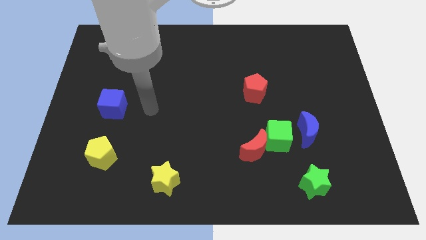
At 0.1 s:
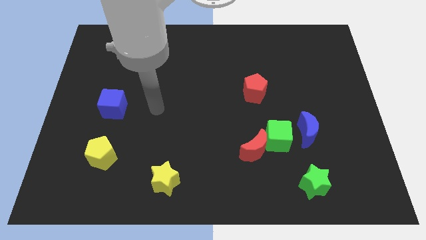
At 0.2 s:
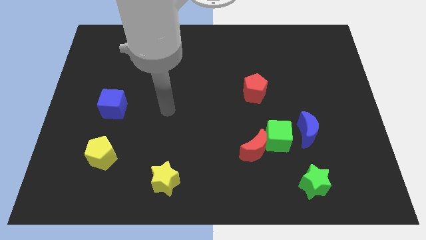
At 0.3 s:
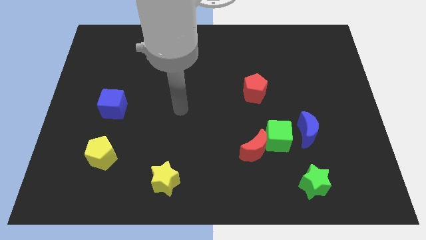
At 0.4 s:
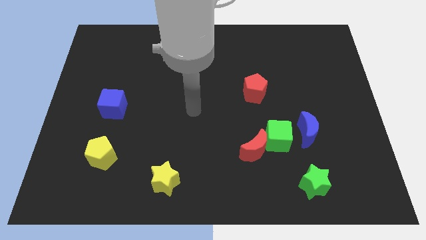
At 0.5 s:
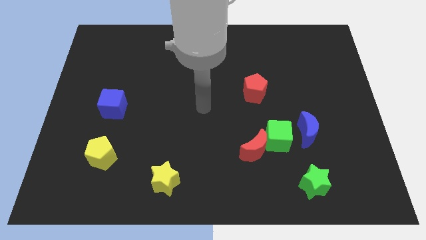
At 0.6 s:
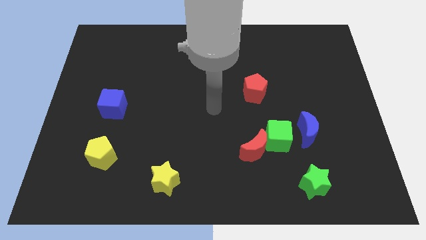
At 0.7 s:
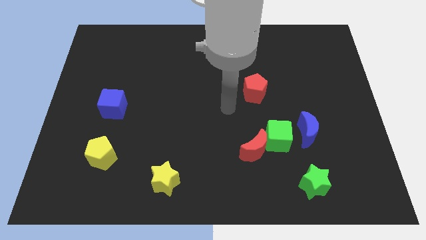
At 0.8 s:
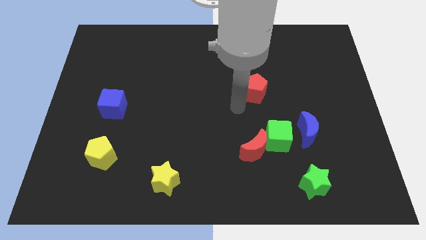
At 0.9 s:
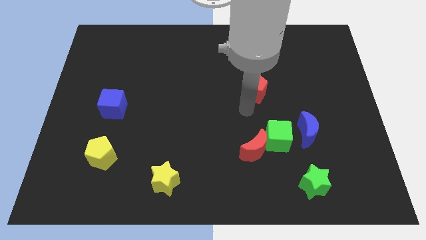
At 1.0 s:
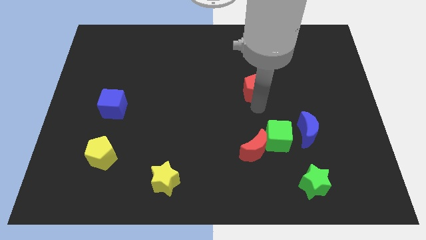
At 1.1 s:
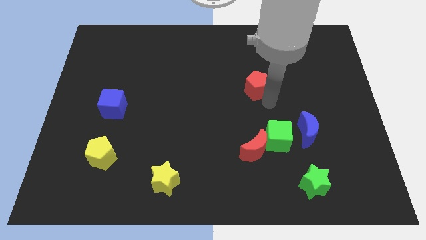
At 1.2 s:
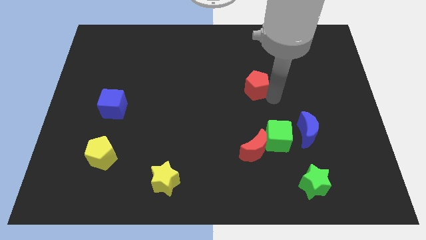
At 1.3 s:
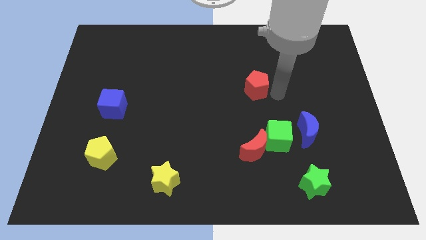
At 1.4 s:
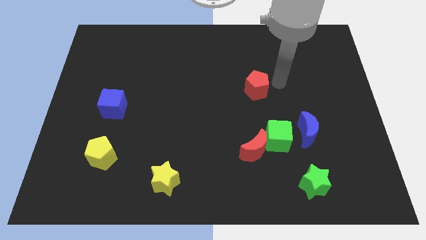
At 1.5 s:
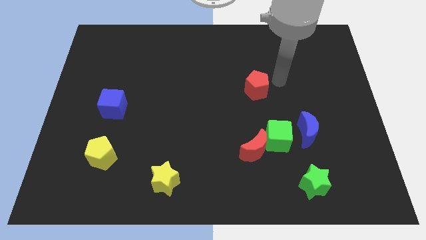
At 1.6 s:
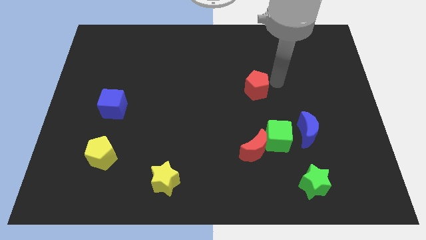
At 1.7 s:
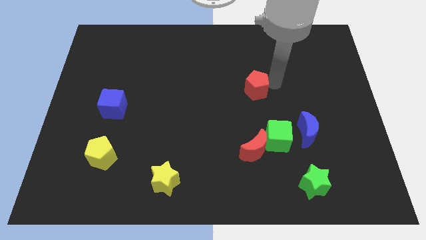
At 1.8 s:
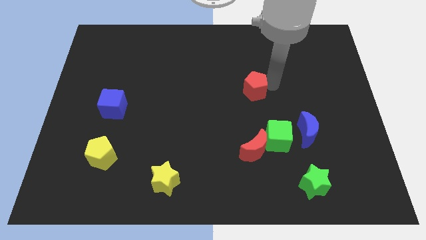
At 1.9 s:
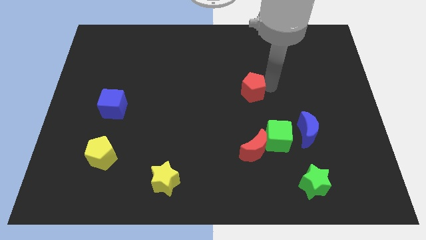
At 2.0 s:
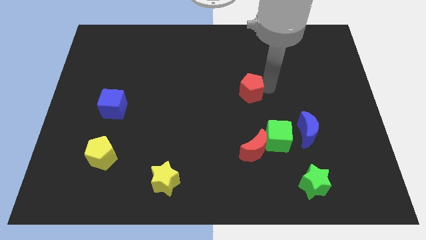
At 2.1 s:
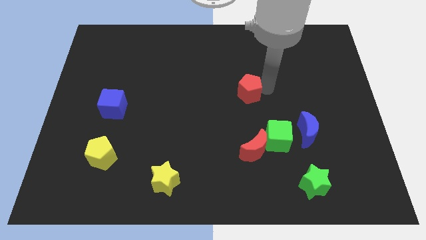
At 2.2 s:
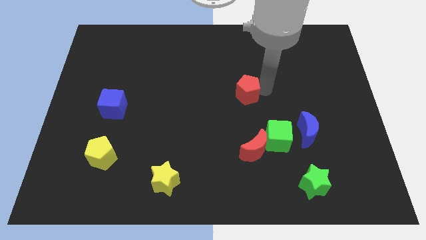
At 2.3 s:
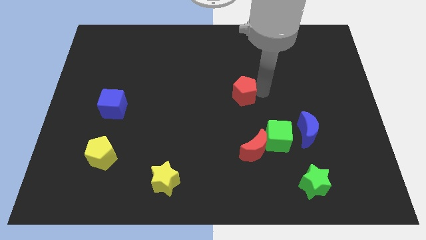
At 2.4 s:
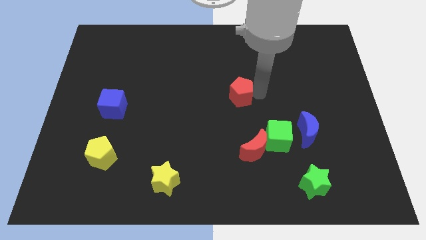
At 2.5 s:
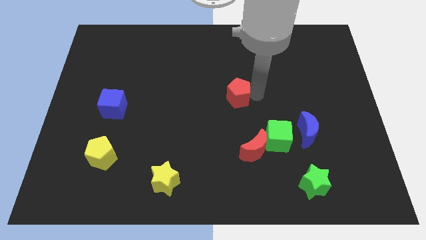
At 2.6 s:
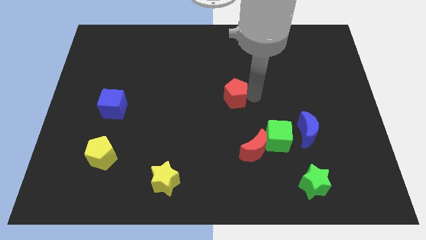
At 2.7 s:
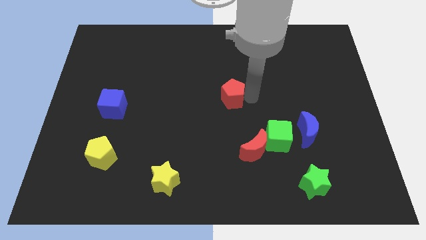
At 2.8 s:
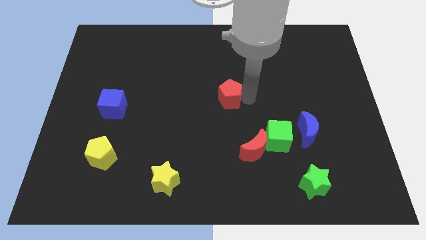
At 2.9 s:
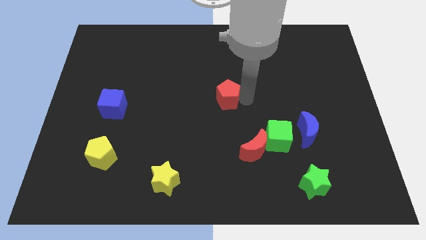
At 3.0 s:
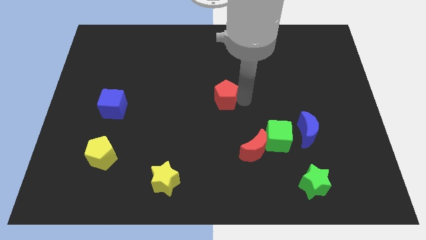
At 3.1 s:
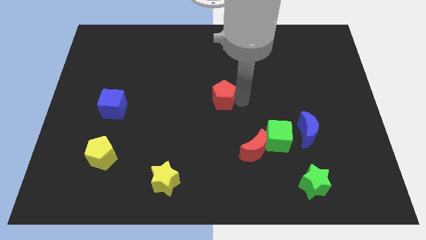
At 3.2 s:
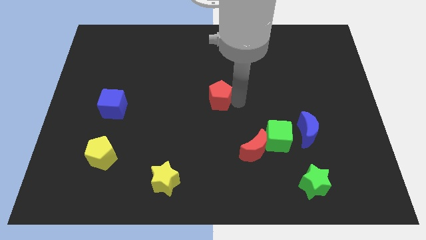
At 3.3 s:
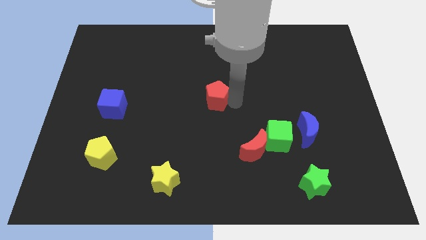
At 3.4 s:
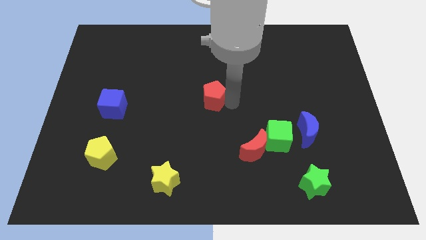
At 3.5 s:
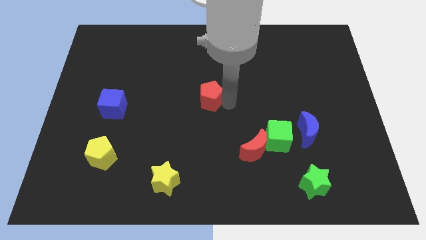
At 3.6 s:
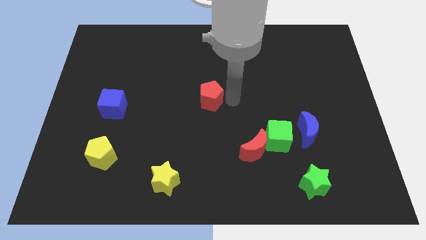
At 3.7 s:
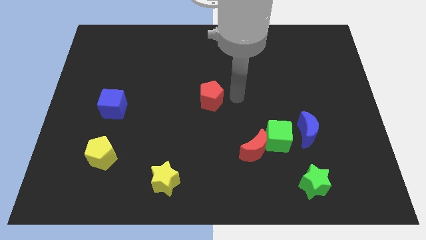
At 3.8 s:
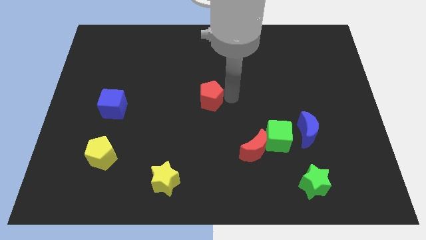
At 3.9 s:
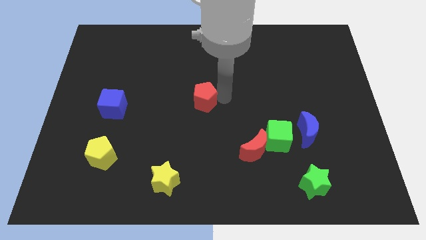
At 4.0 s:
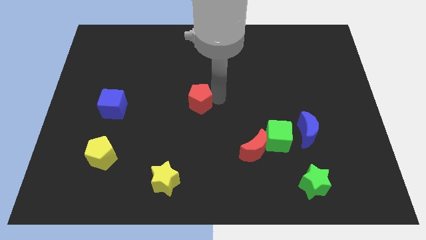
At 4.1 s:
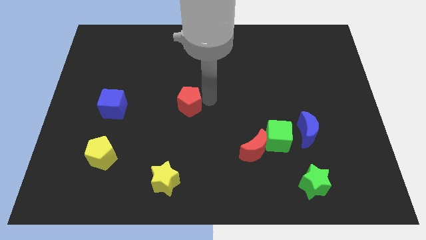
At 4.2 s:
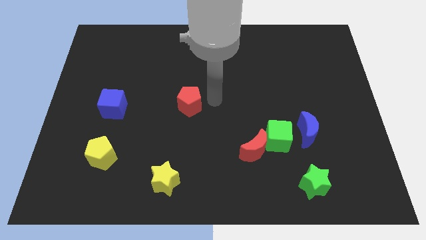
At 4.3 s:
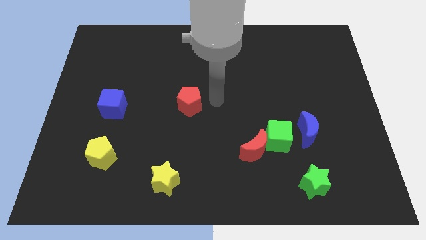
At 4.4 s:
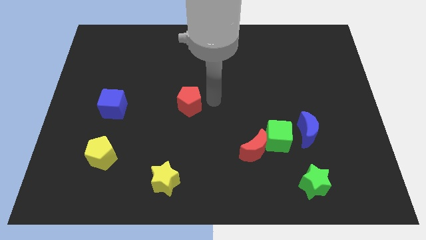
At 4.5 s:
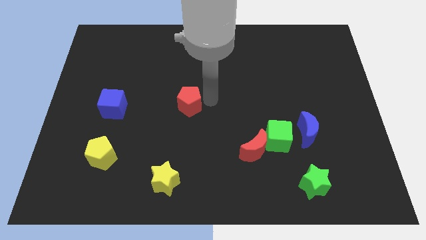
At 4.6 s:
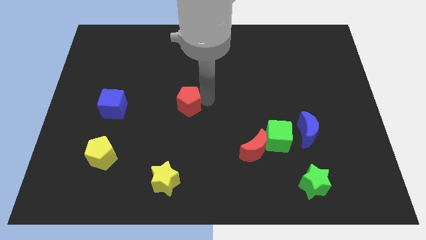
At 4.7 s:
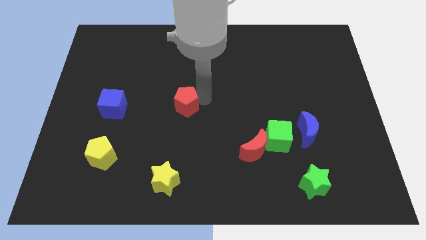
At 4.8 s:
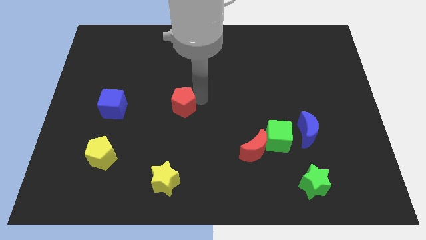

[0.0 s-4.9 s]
slide the red pentagon to the right of the blue cube

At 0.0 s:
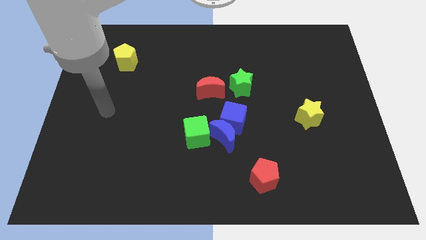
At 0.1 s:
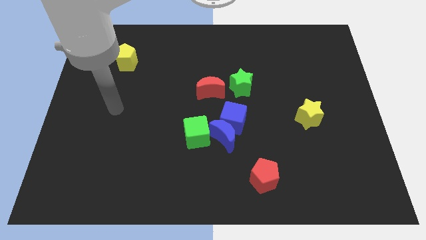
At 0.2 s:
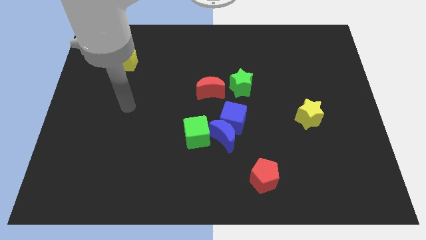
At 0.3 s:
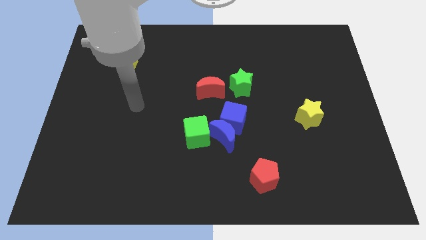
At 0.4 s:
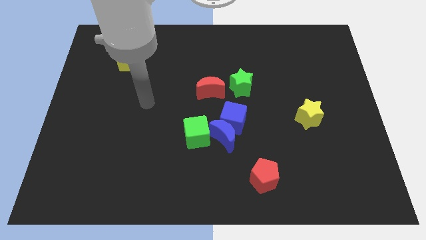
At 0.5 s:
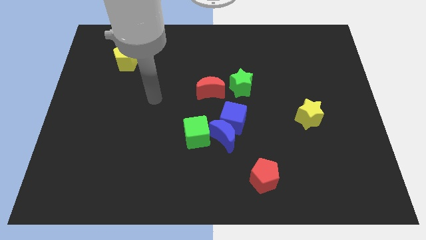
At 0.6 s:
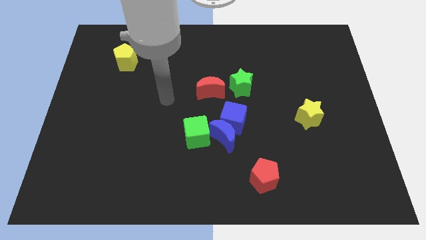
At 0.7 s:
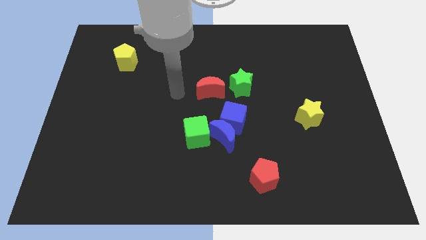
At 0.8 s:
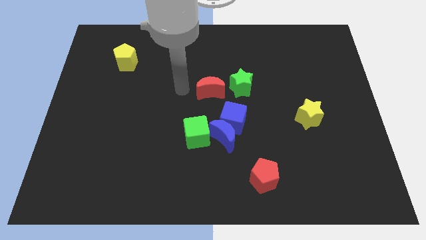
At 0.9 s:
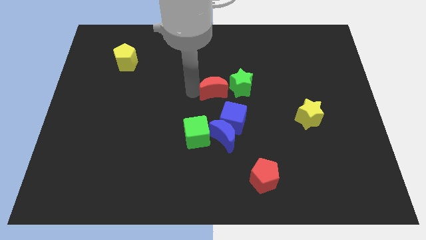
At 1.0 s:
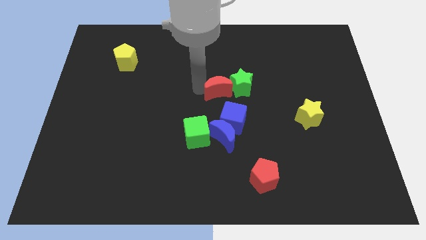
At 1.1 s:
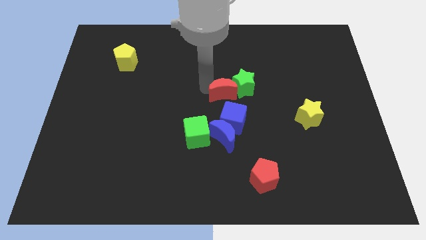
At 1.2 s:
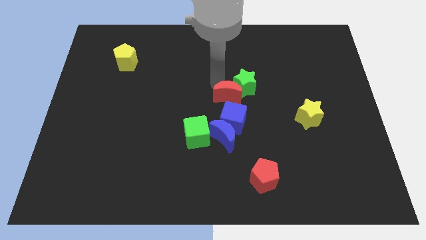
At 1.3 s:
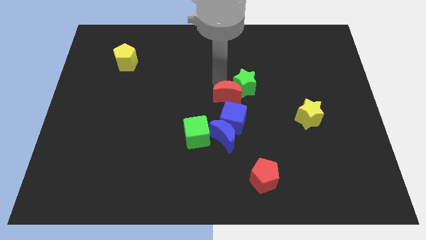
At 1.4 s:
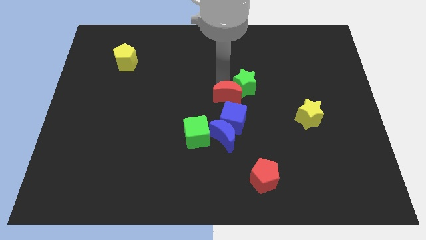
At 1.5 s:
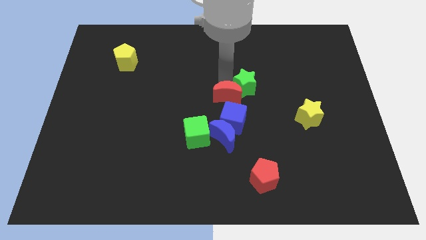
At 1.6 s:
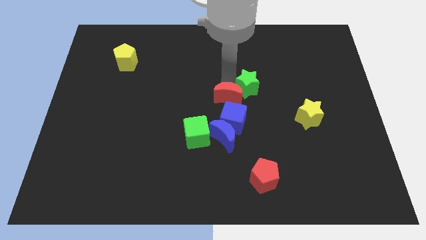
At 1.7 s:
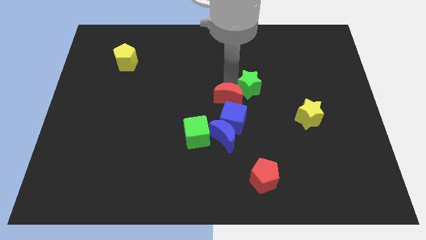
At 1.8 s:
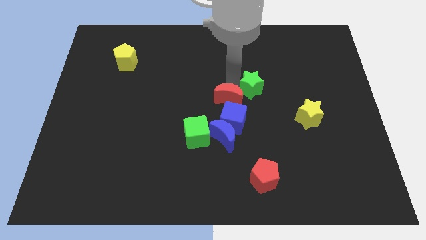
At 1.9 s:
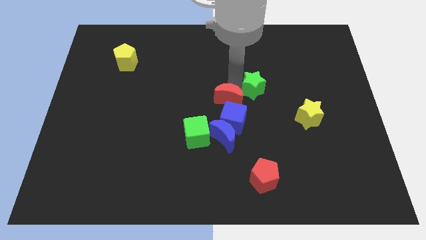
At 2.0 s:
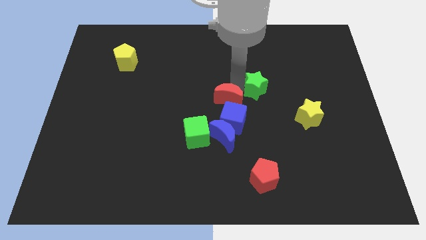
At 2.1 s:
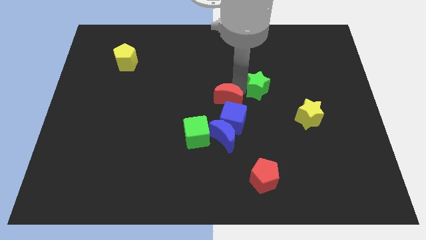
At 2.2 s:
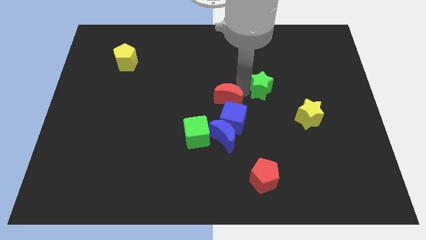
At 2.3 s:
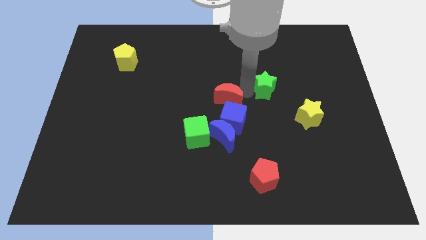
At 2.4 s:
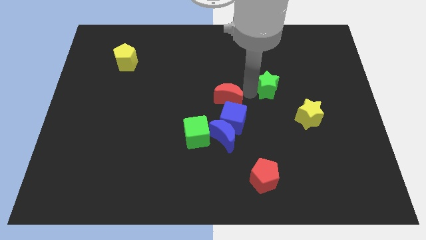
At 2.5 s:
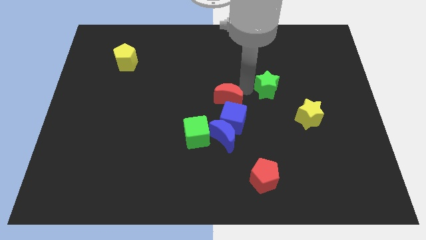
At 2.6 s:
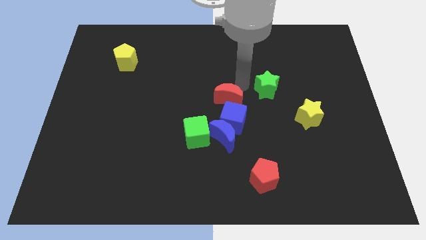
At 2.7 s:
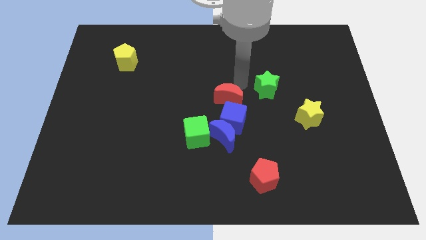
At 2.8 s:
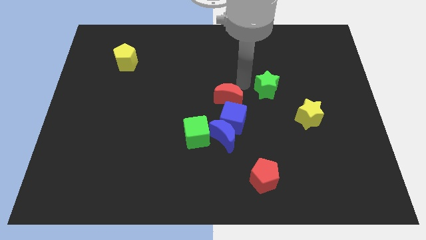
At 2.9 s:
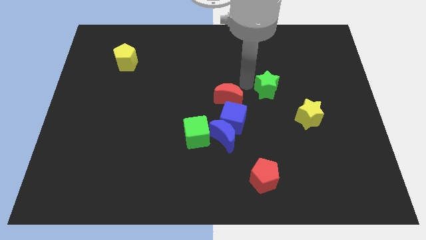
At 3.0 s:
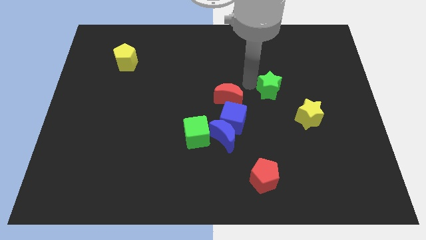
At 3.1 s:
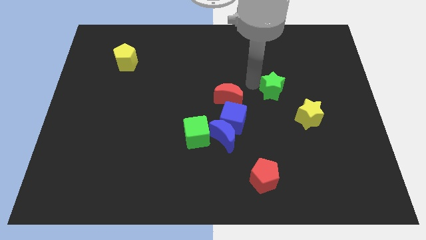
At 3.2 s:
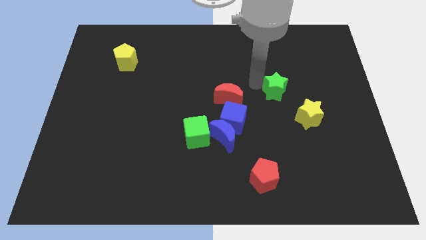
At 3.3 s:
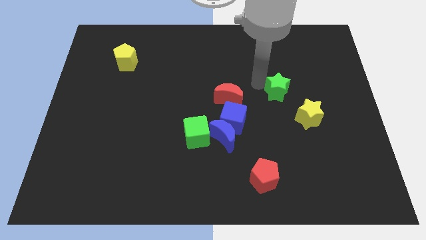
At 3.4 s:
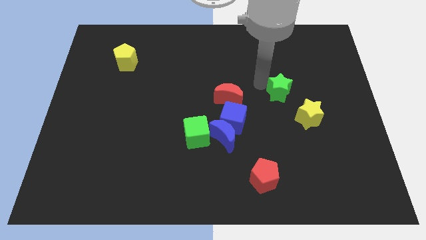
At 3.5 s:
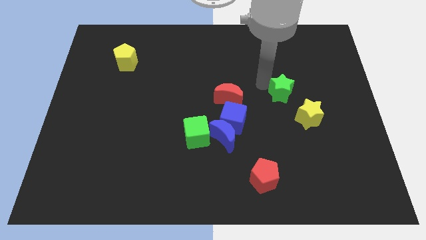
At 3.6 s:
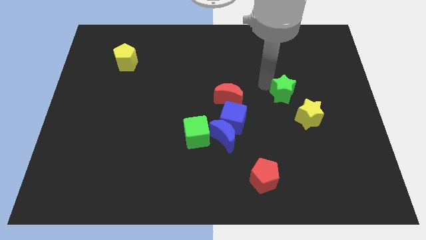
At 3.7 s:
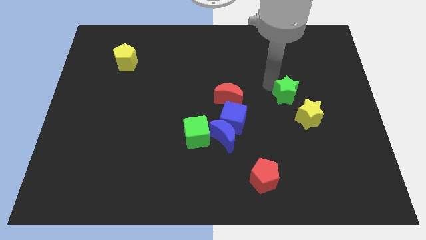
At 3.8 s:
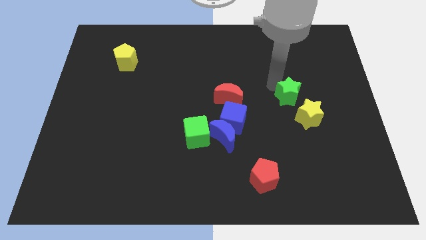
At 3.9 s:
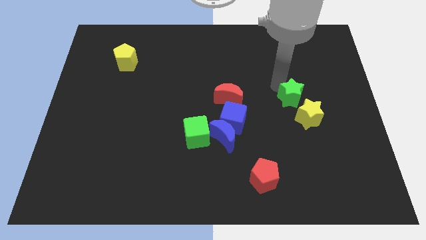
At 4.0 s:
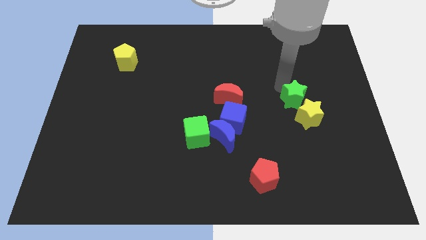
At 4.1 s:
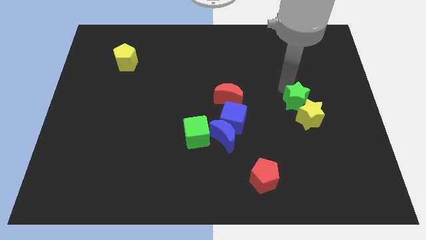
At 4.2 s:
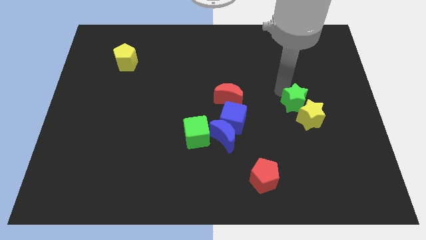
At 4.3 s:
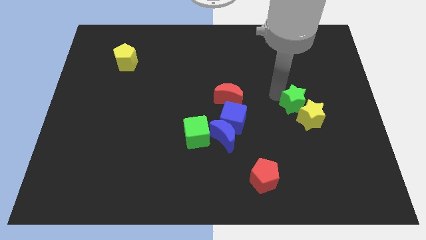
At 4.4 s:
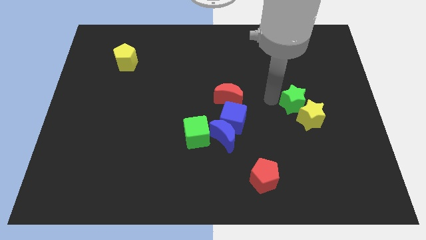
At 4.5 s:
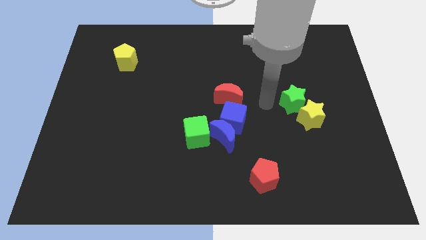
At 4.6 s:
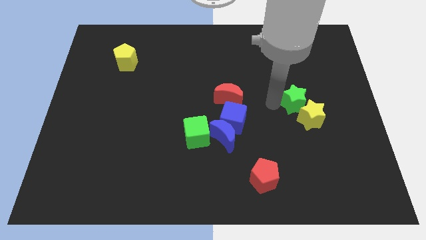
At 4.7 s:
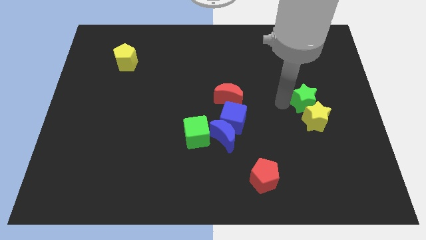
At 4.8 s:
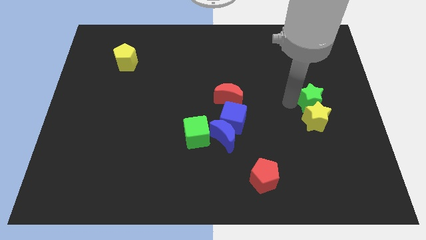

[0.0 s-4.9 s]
put the green star diagonally up and to the right of the yellow star
